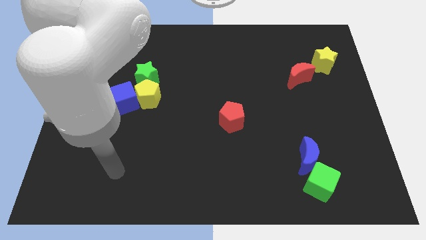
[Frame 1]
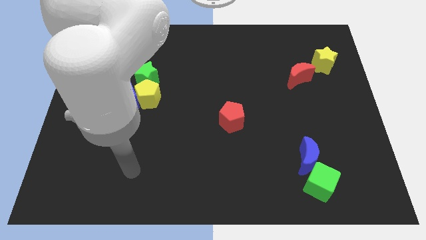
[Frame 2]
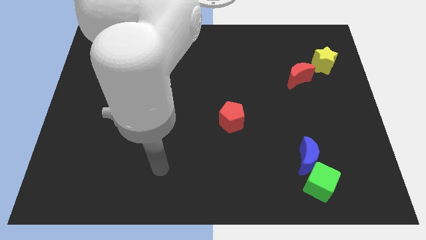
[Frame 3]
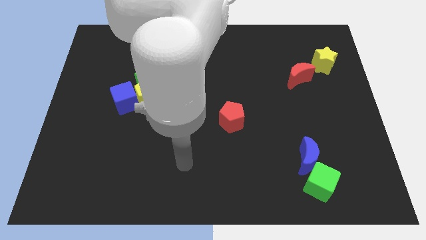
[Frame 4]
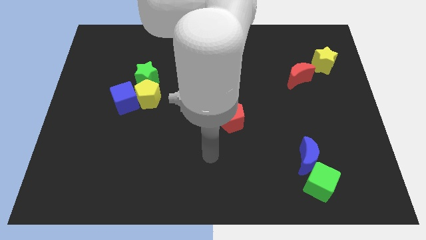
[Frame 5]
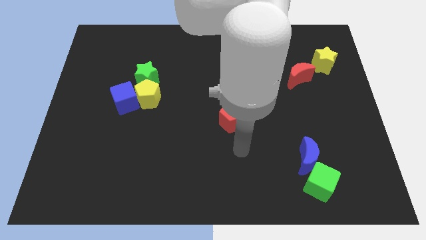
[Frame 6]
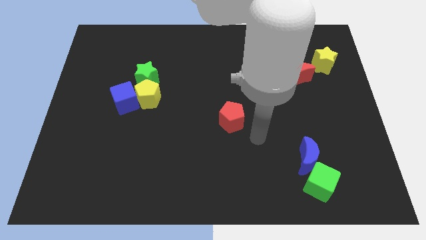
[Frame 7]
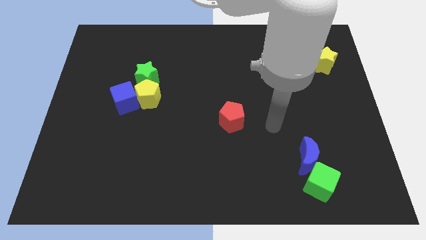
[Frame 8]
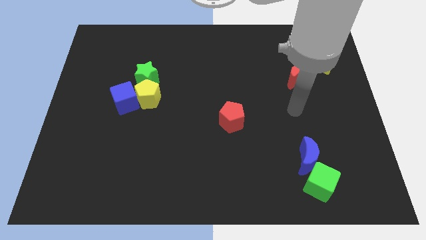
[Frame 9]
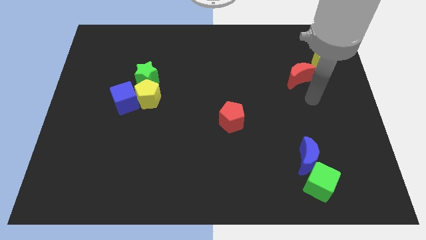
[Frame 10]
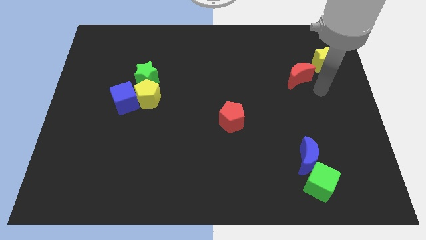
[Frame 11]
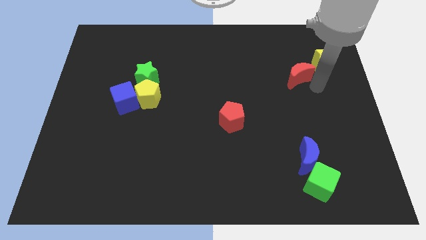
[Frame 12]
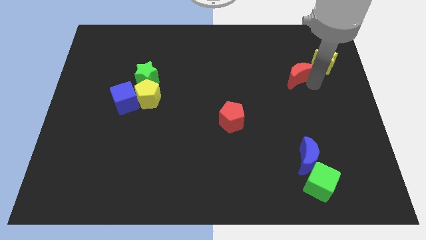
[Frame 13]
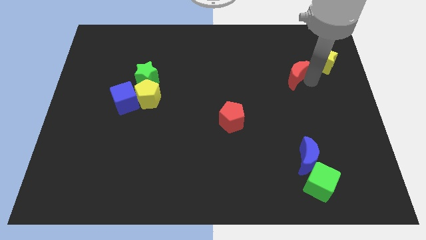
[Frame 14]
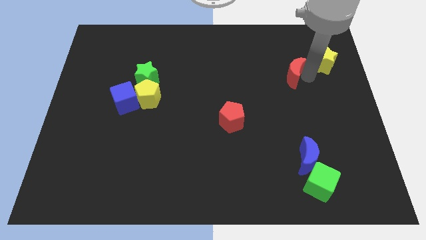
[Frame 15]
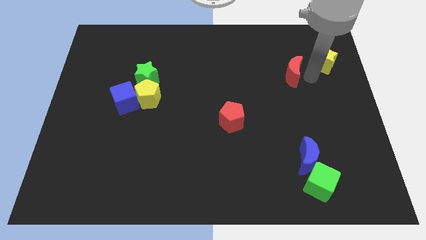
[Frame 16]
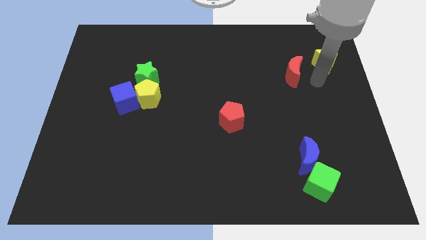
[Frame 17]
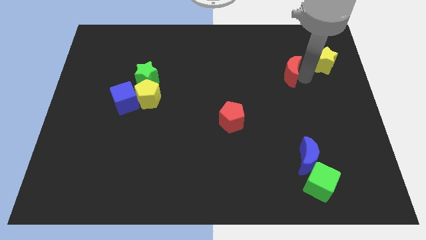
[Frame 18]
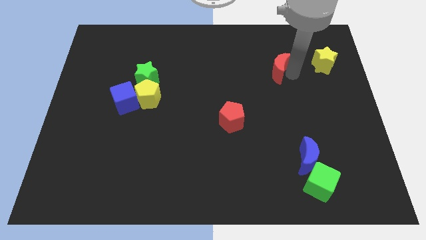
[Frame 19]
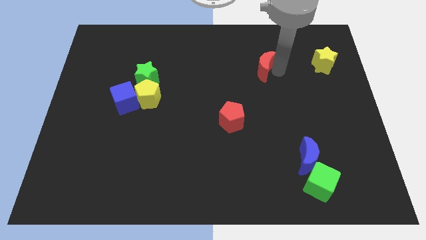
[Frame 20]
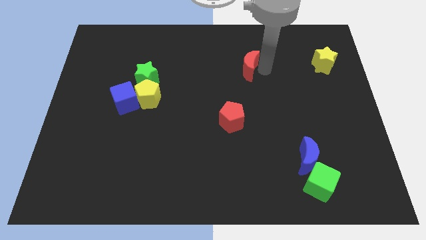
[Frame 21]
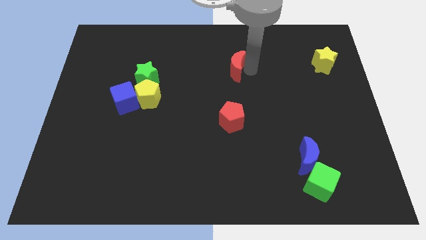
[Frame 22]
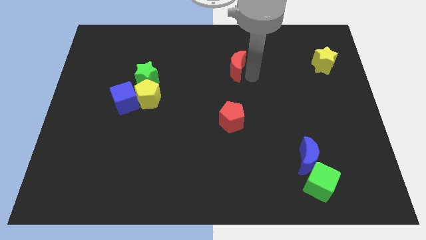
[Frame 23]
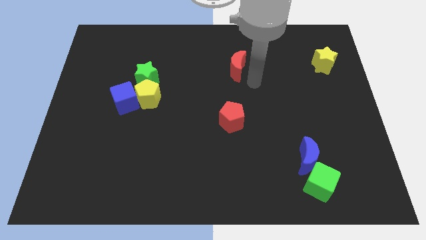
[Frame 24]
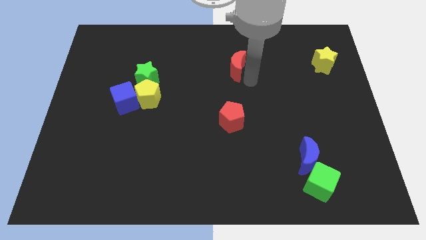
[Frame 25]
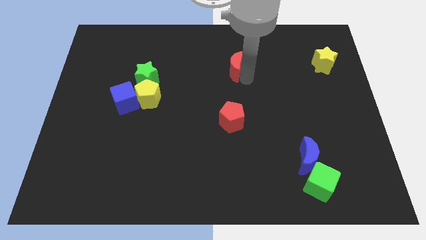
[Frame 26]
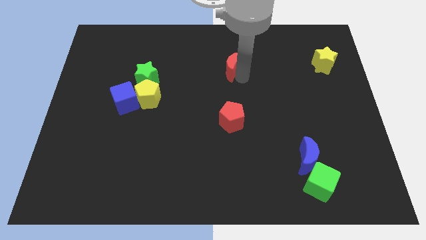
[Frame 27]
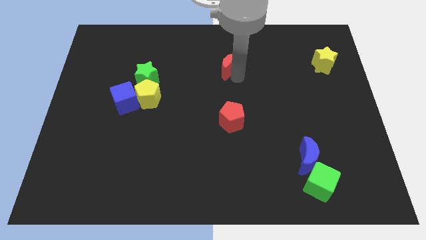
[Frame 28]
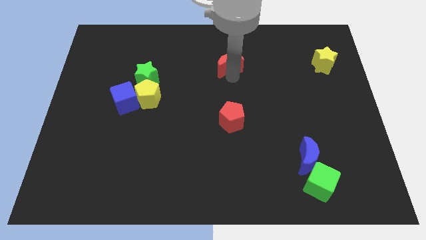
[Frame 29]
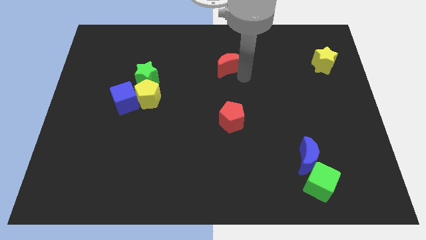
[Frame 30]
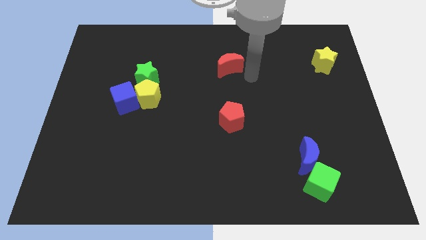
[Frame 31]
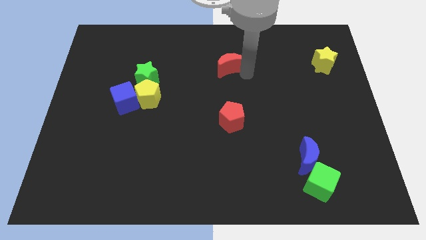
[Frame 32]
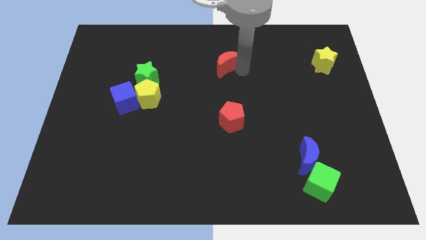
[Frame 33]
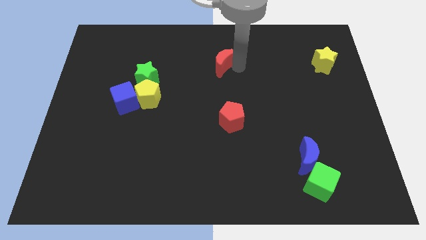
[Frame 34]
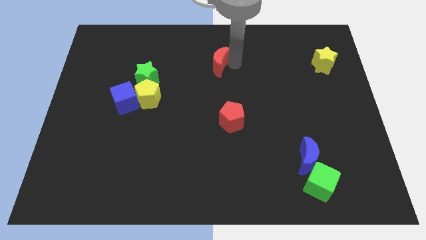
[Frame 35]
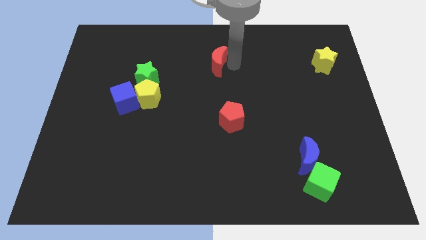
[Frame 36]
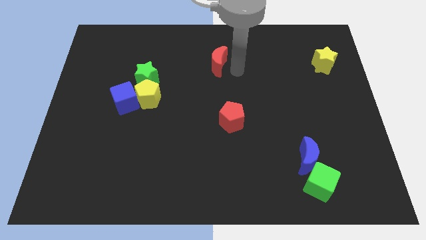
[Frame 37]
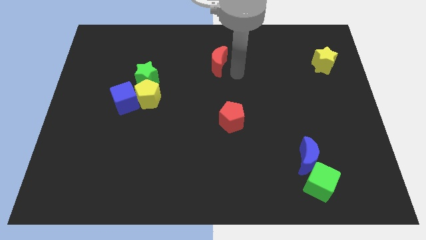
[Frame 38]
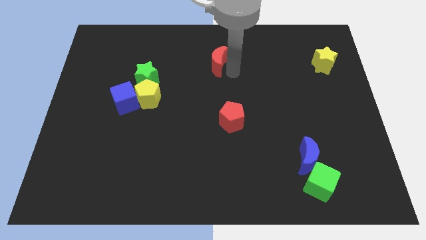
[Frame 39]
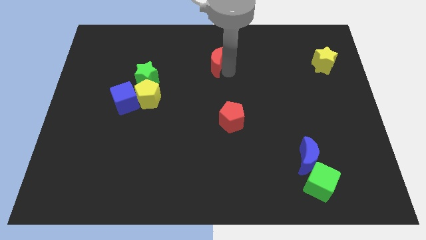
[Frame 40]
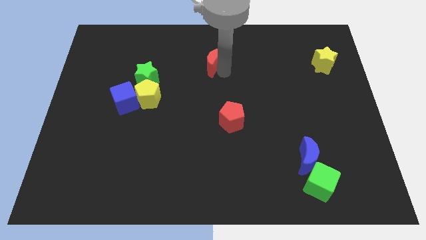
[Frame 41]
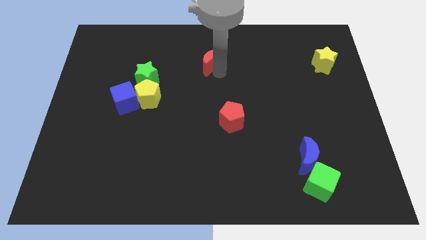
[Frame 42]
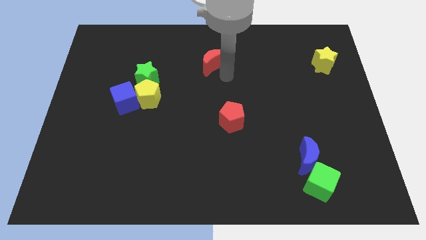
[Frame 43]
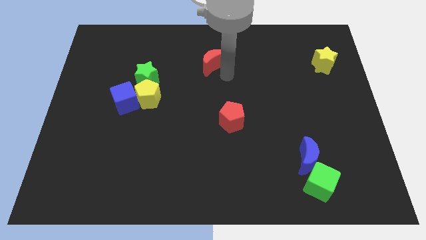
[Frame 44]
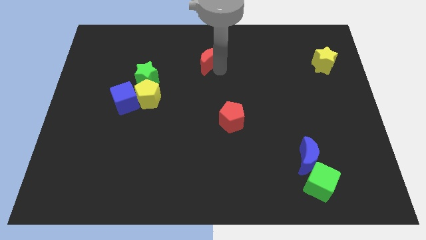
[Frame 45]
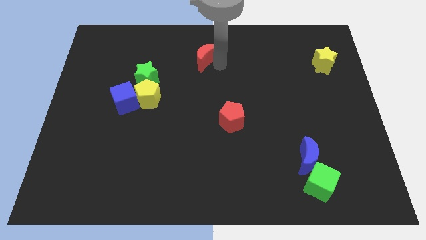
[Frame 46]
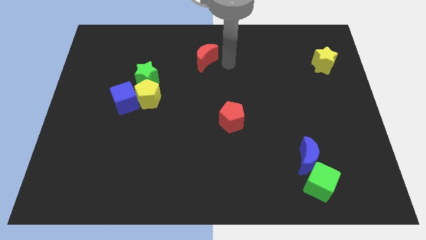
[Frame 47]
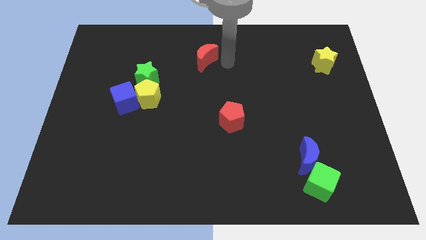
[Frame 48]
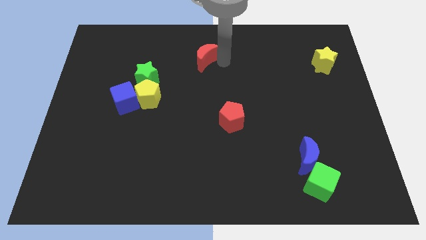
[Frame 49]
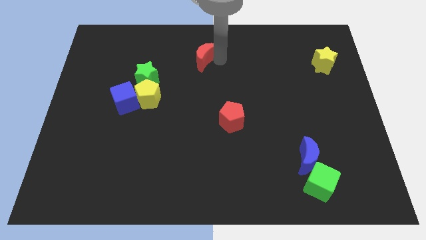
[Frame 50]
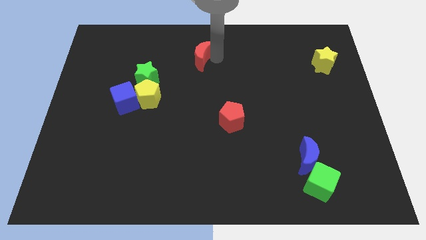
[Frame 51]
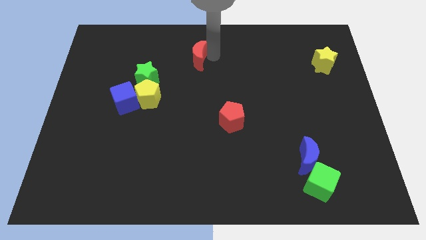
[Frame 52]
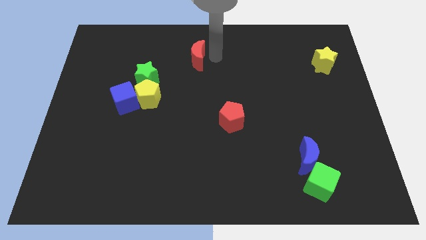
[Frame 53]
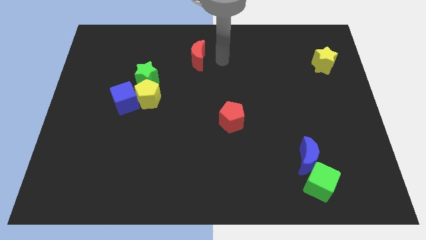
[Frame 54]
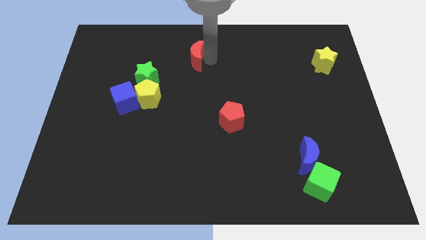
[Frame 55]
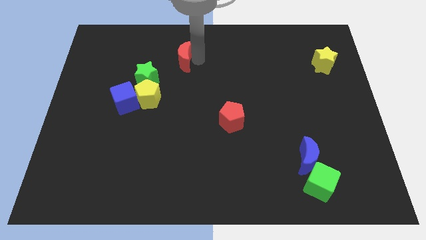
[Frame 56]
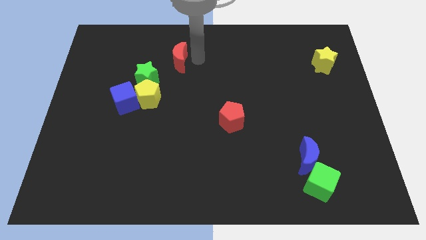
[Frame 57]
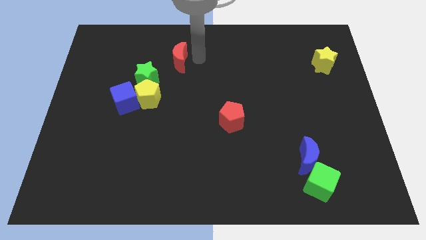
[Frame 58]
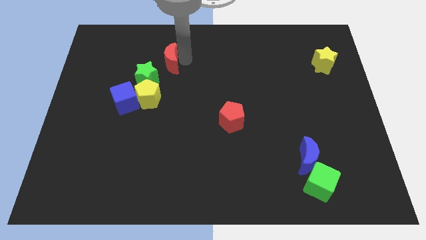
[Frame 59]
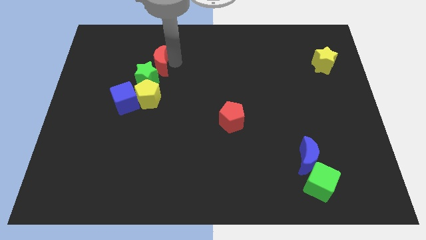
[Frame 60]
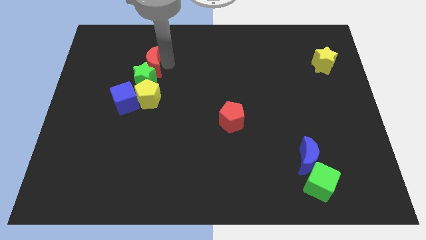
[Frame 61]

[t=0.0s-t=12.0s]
move the red moon to the top left side of the green star

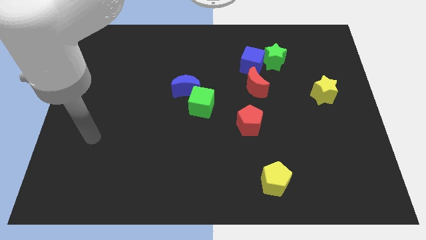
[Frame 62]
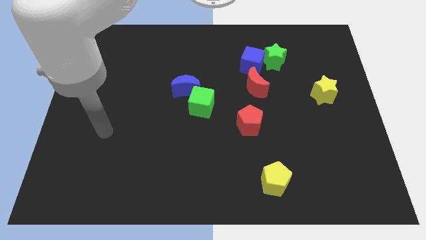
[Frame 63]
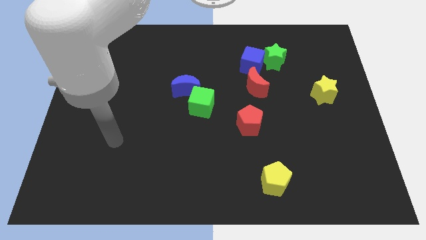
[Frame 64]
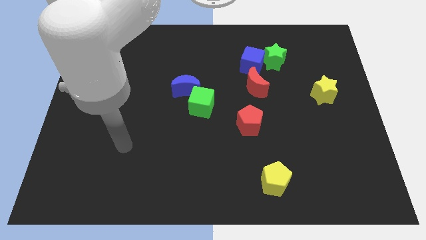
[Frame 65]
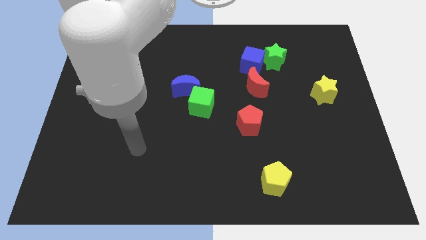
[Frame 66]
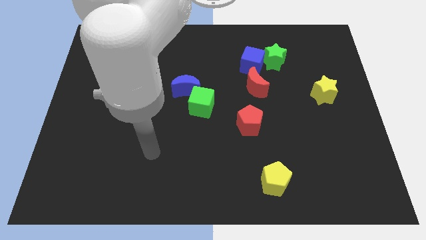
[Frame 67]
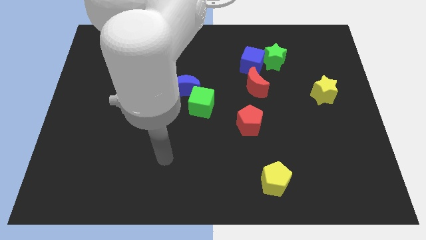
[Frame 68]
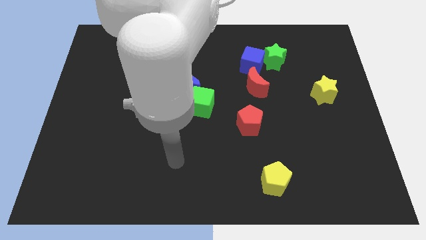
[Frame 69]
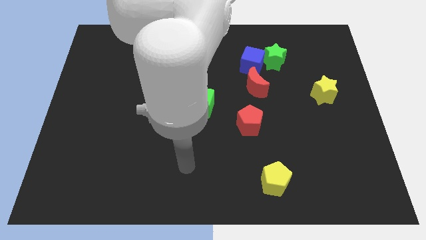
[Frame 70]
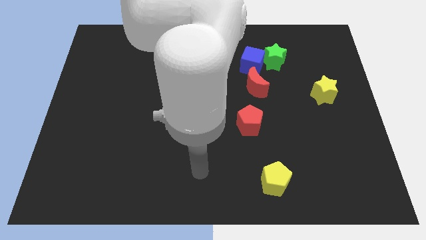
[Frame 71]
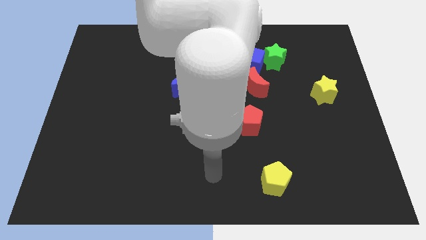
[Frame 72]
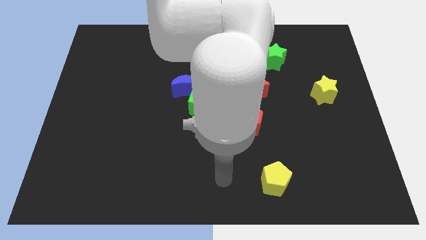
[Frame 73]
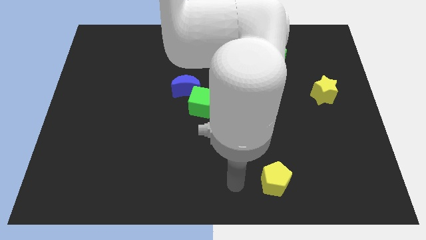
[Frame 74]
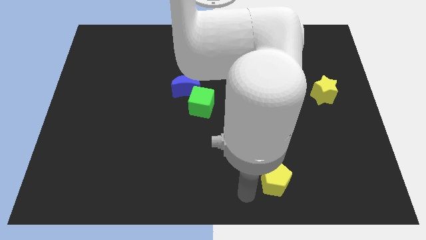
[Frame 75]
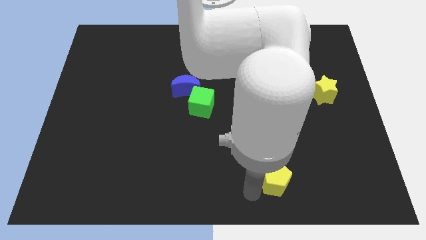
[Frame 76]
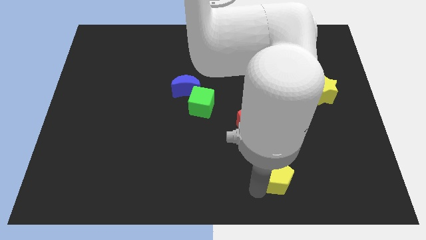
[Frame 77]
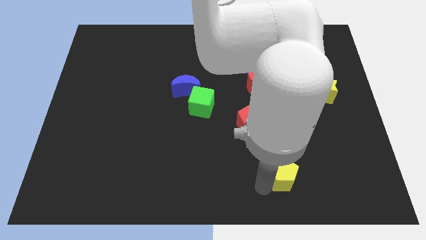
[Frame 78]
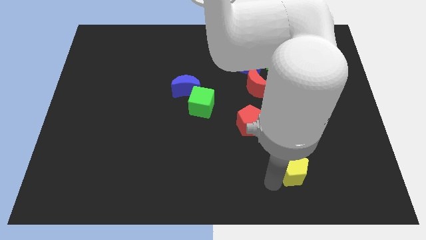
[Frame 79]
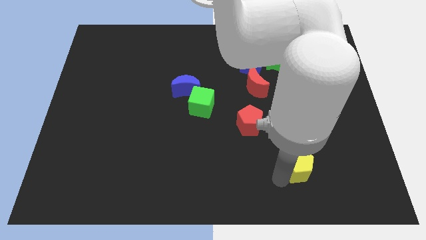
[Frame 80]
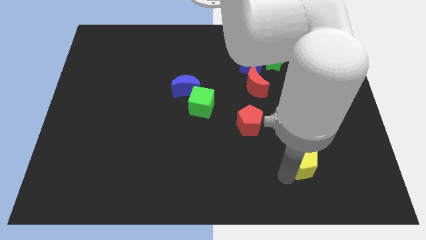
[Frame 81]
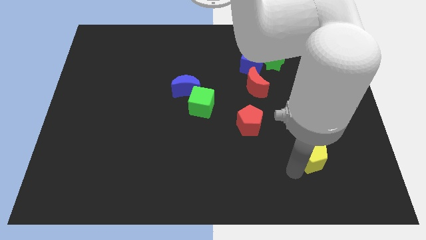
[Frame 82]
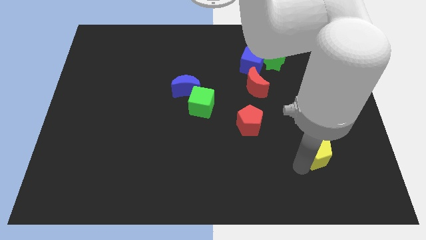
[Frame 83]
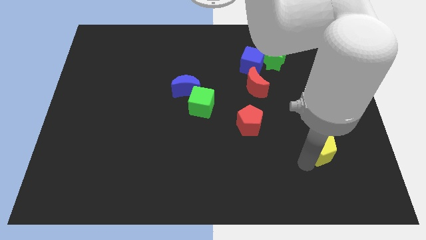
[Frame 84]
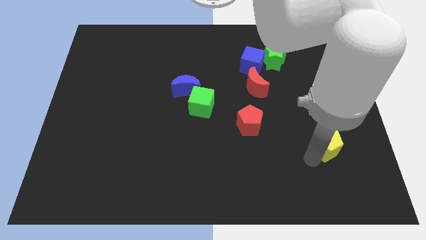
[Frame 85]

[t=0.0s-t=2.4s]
move the yellow pentagon to the bottom side of the yellow star
